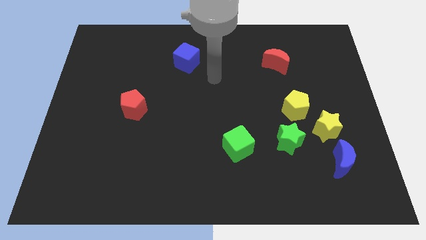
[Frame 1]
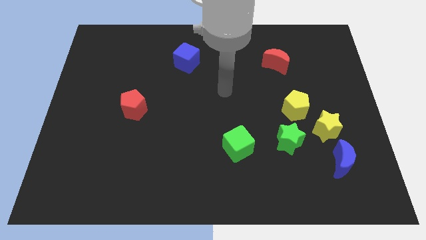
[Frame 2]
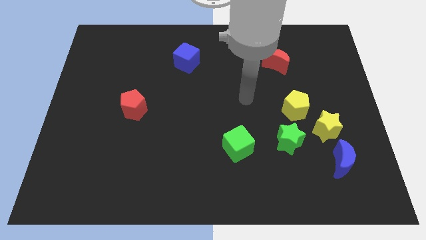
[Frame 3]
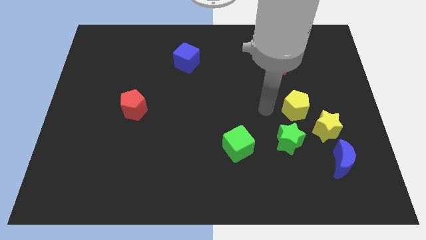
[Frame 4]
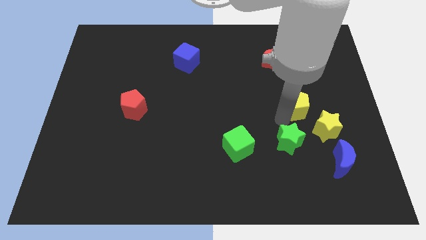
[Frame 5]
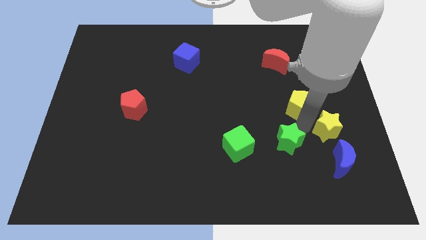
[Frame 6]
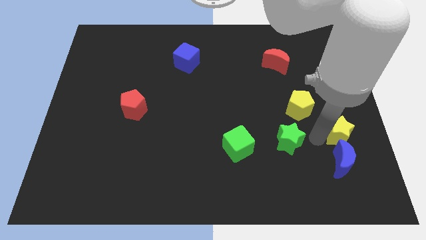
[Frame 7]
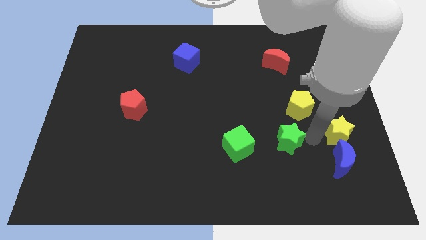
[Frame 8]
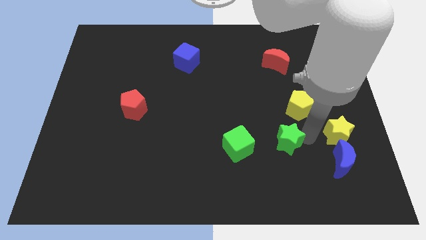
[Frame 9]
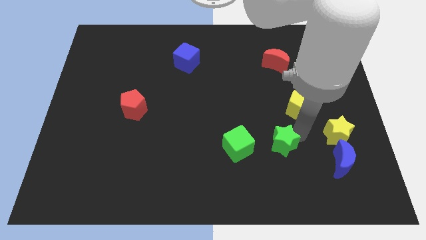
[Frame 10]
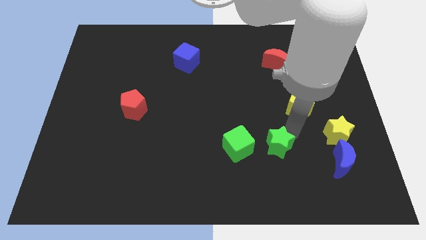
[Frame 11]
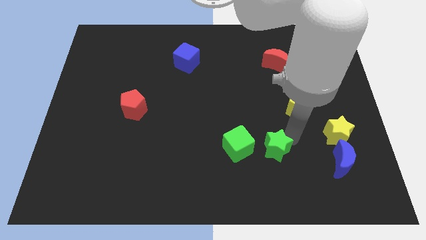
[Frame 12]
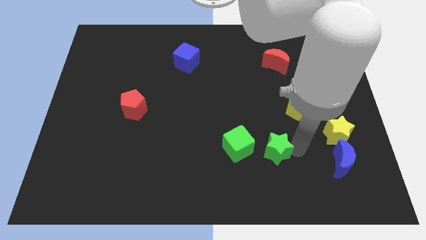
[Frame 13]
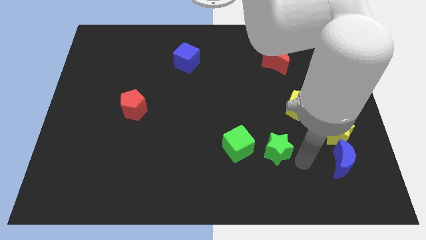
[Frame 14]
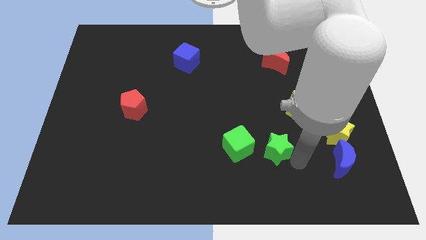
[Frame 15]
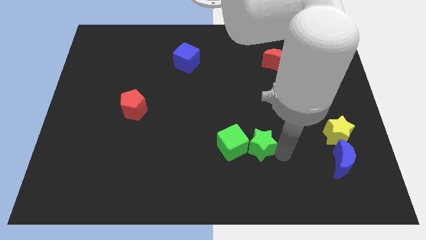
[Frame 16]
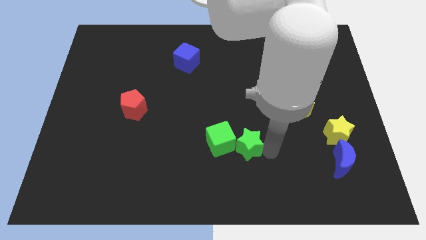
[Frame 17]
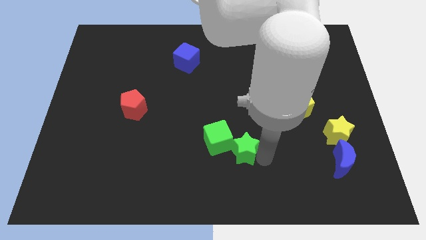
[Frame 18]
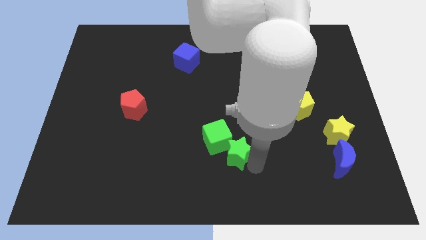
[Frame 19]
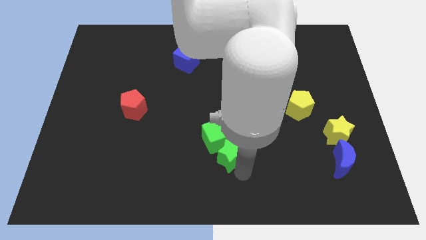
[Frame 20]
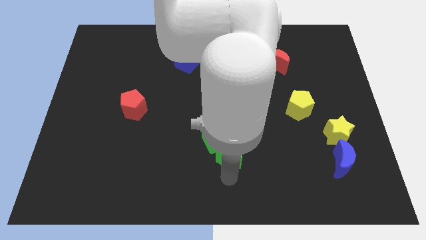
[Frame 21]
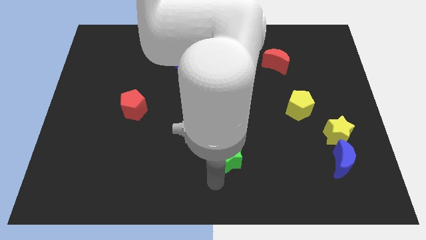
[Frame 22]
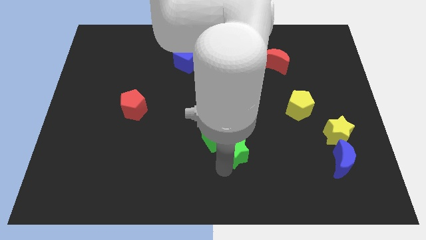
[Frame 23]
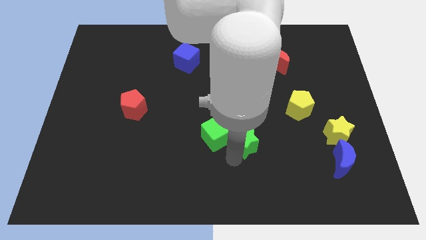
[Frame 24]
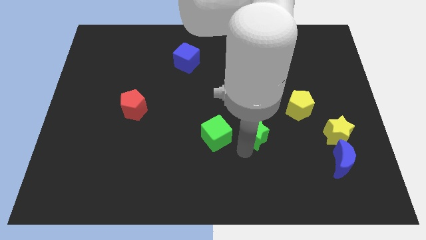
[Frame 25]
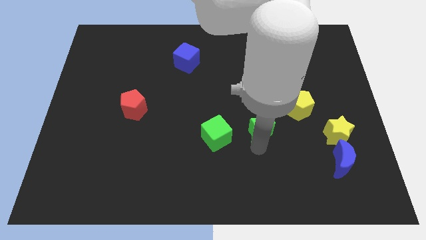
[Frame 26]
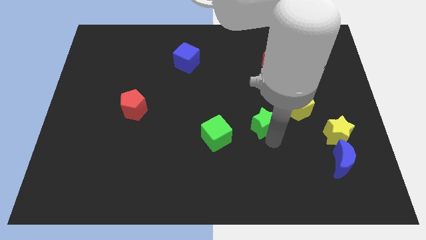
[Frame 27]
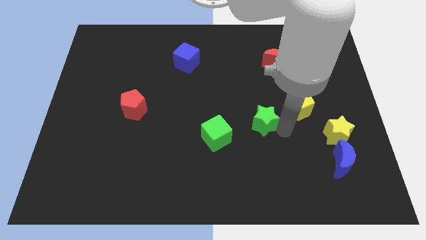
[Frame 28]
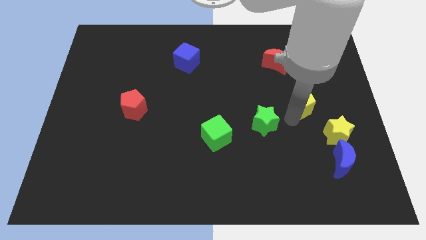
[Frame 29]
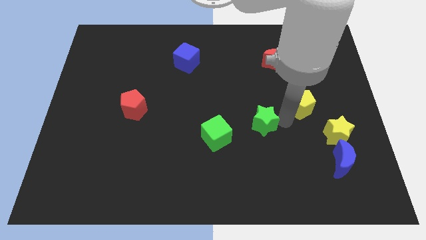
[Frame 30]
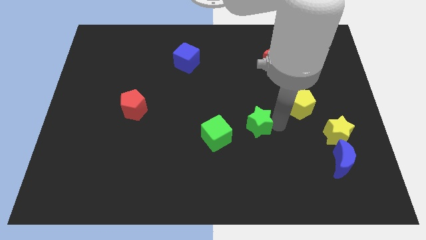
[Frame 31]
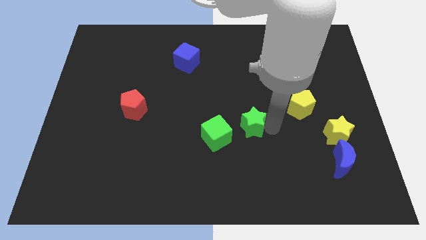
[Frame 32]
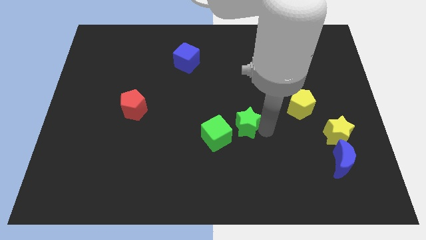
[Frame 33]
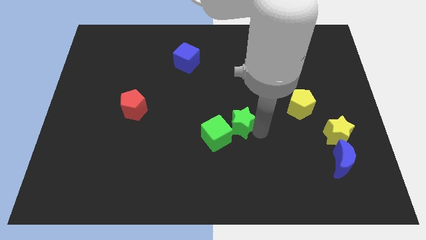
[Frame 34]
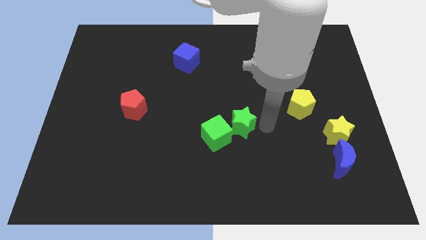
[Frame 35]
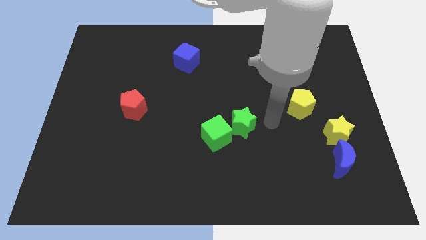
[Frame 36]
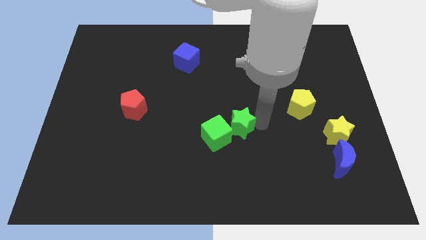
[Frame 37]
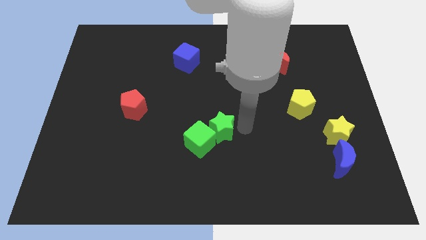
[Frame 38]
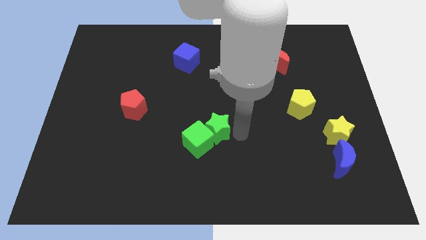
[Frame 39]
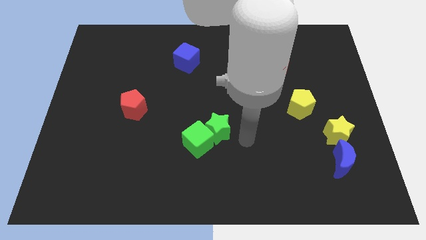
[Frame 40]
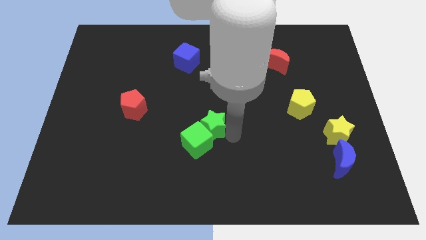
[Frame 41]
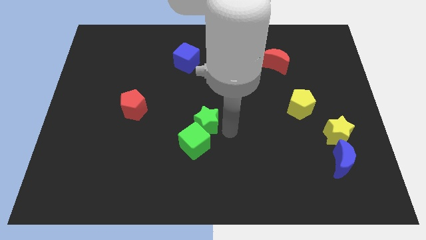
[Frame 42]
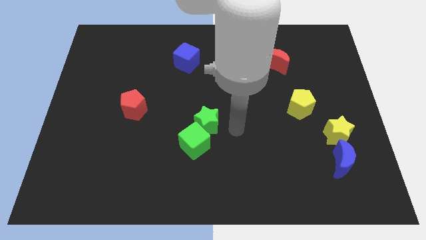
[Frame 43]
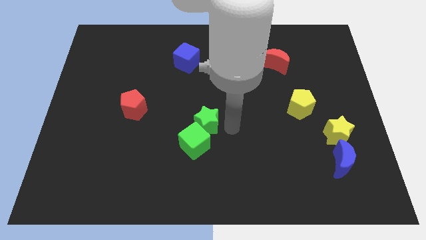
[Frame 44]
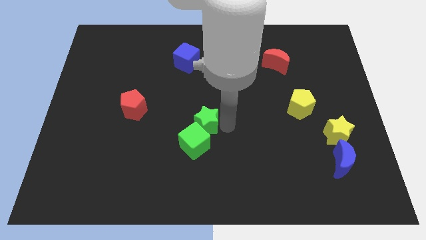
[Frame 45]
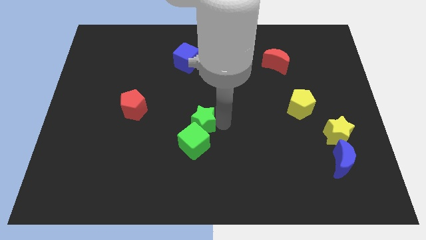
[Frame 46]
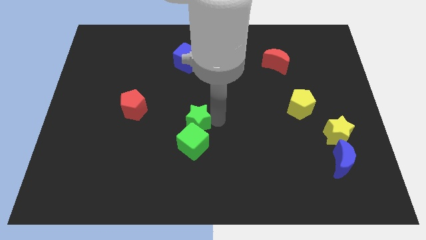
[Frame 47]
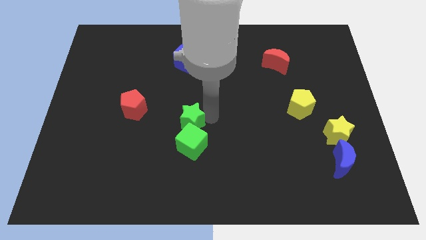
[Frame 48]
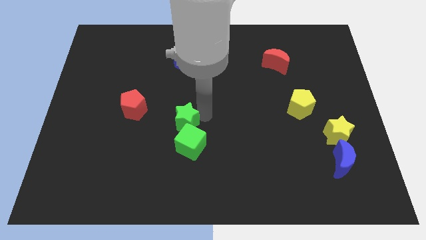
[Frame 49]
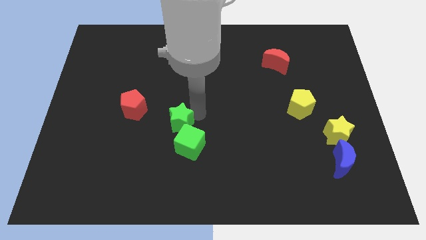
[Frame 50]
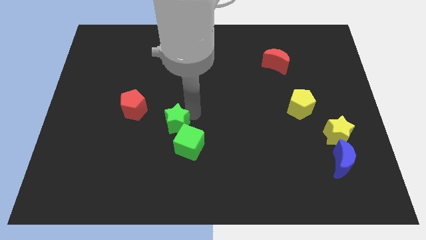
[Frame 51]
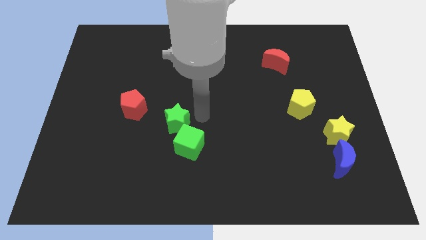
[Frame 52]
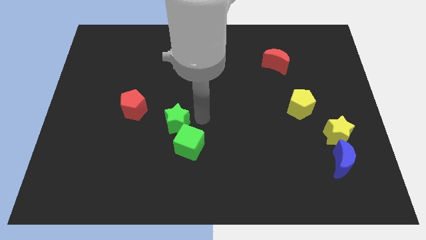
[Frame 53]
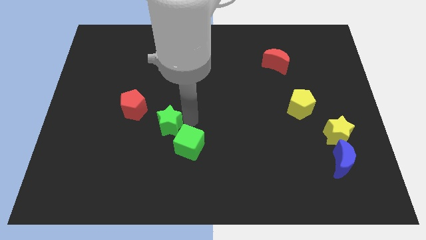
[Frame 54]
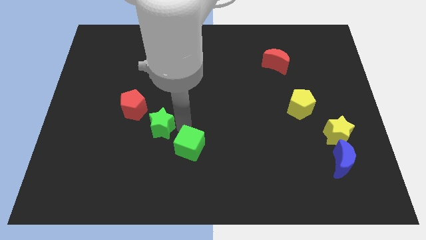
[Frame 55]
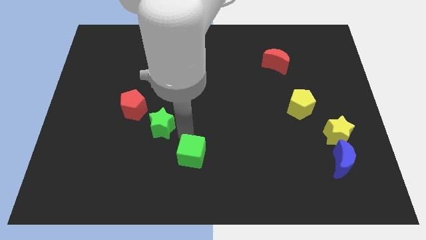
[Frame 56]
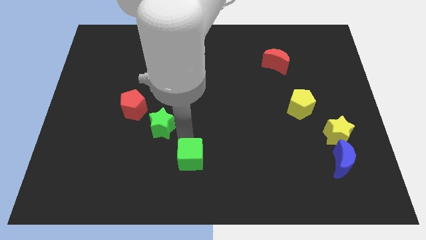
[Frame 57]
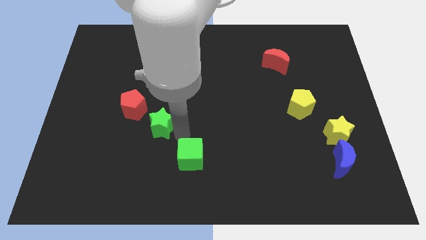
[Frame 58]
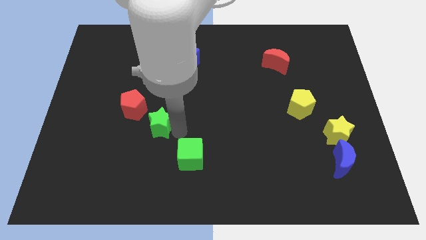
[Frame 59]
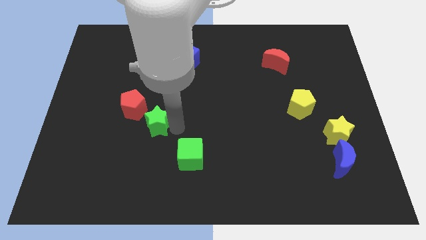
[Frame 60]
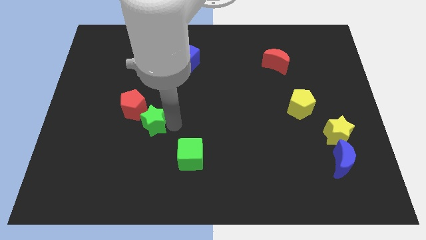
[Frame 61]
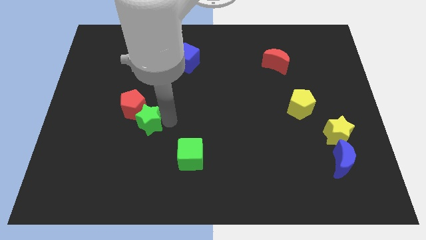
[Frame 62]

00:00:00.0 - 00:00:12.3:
move the green star towards the red pentagon

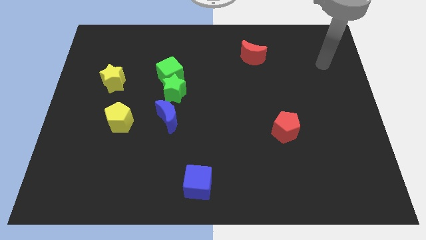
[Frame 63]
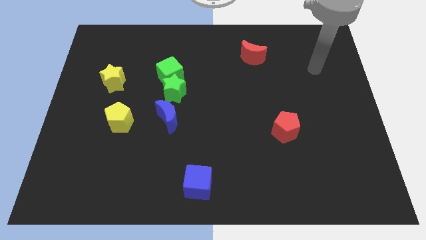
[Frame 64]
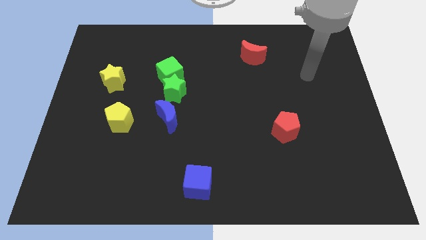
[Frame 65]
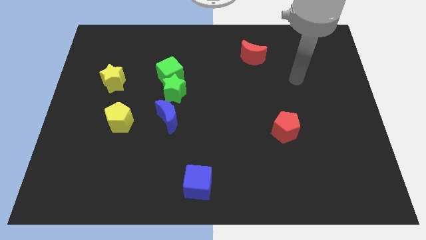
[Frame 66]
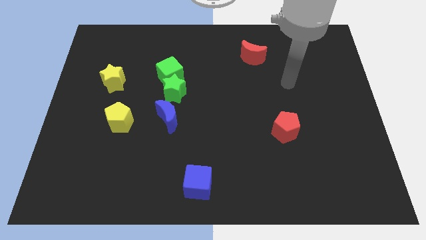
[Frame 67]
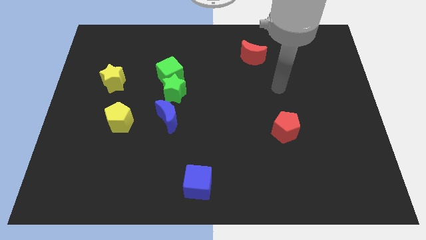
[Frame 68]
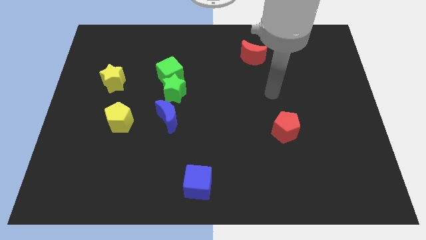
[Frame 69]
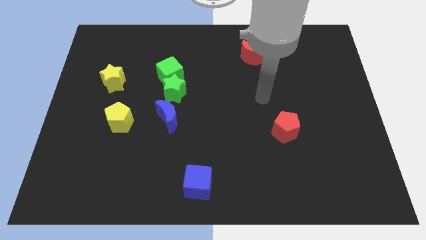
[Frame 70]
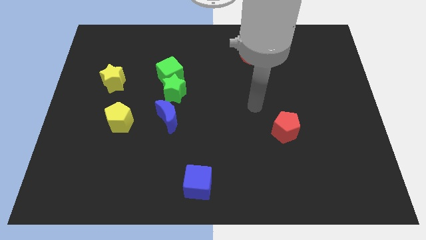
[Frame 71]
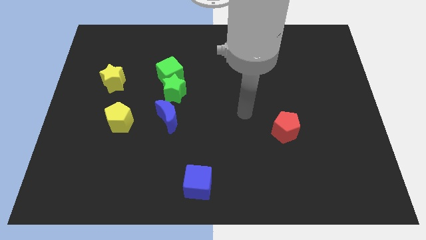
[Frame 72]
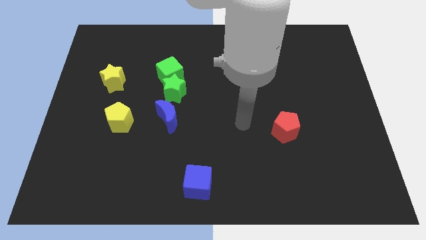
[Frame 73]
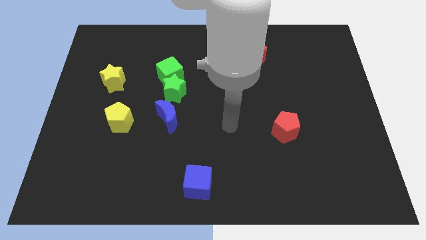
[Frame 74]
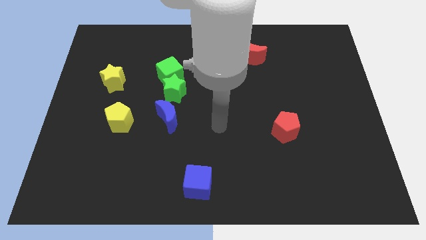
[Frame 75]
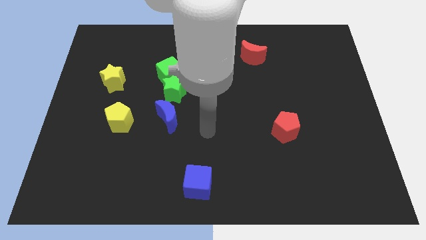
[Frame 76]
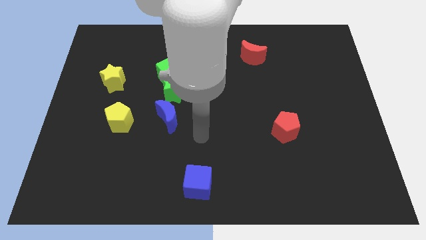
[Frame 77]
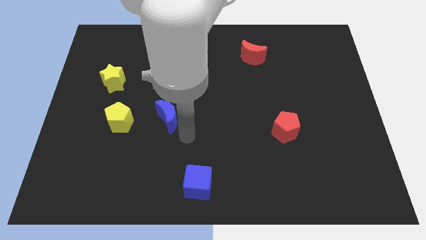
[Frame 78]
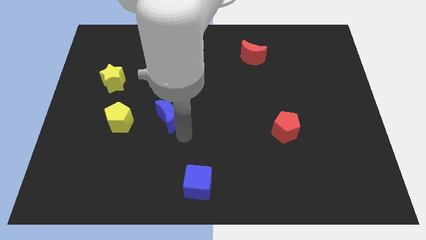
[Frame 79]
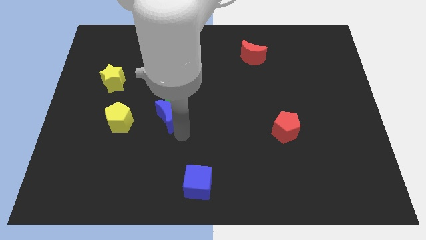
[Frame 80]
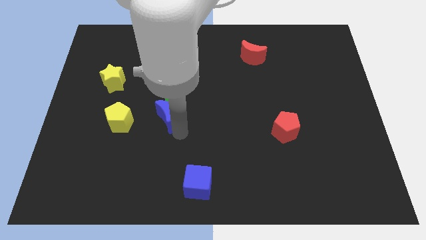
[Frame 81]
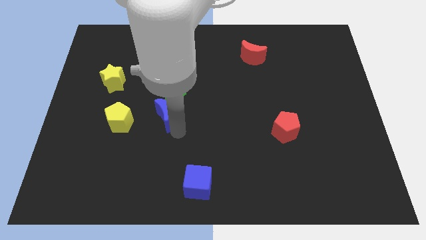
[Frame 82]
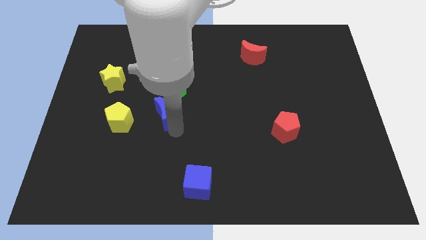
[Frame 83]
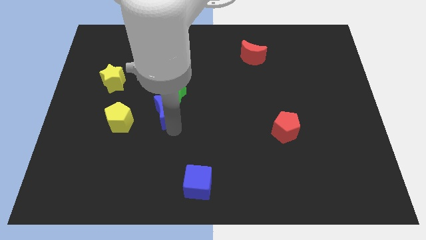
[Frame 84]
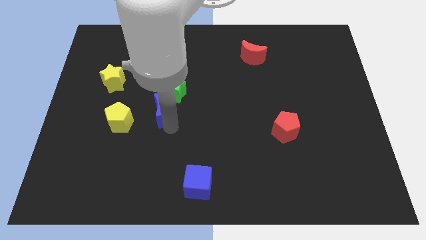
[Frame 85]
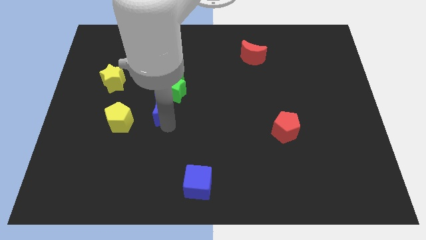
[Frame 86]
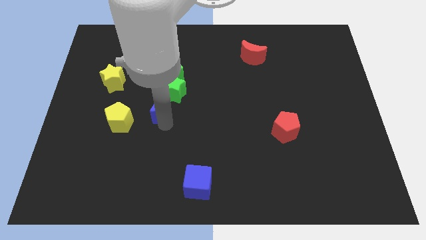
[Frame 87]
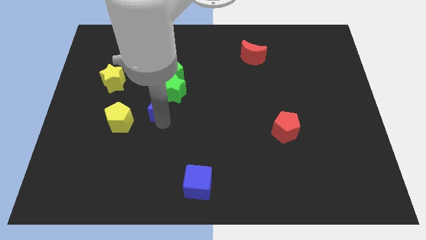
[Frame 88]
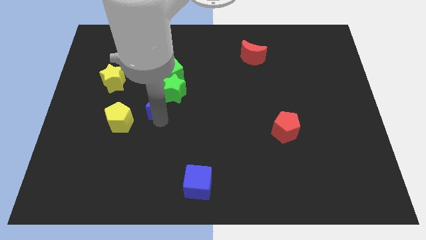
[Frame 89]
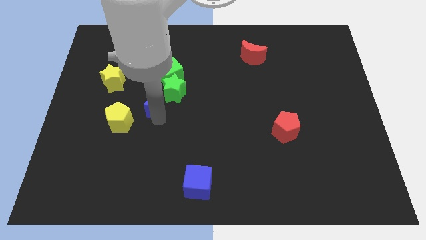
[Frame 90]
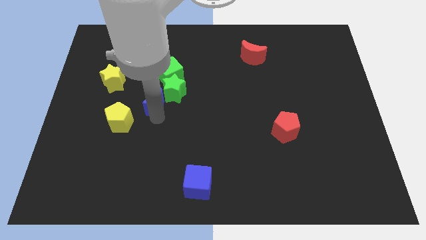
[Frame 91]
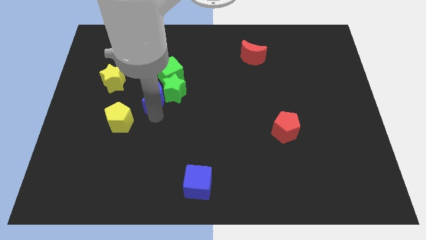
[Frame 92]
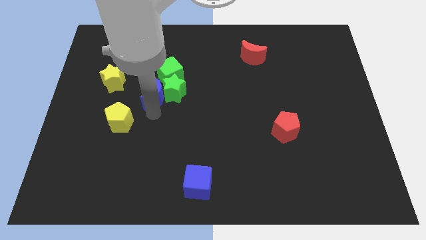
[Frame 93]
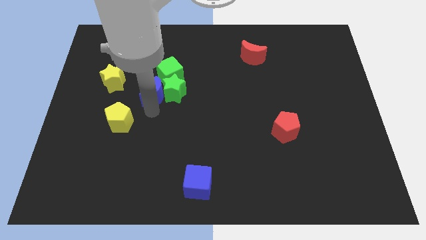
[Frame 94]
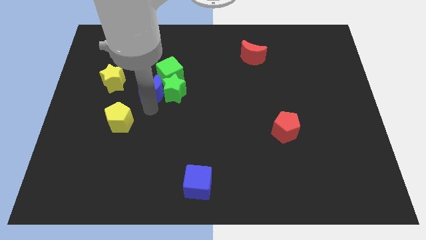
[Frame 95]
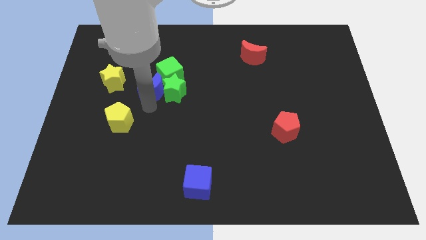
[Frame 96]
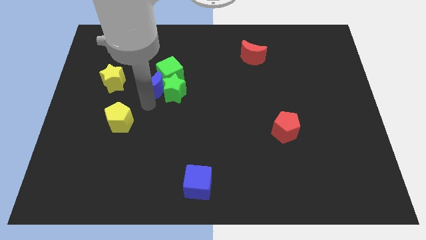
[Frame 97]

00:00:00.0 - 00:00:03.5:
put the blue moon towards the green cube
